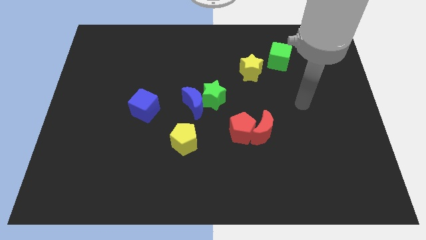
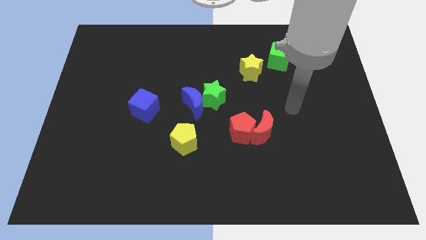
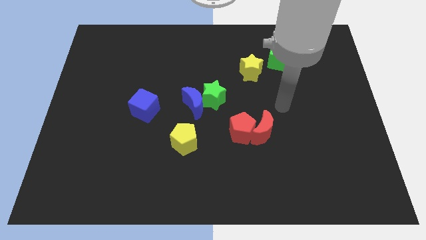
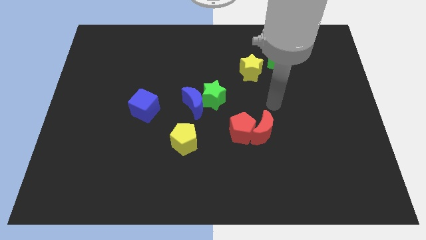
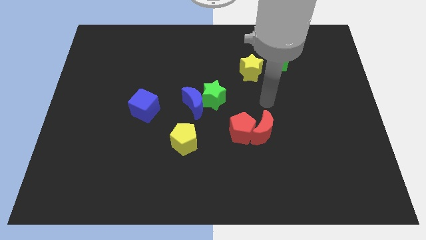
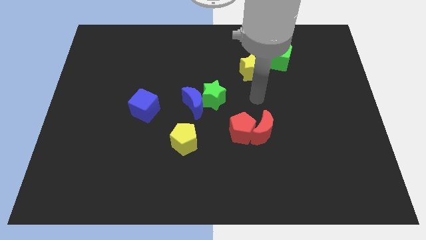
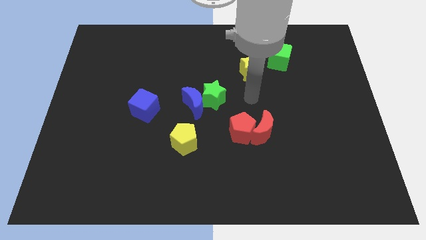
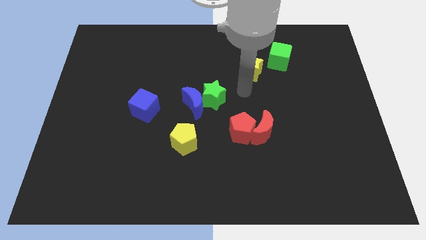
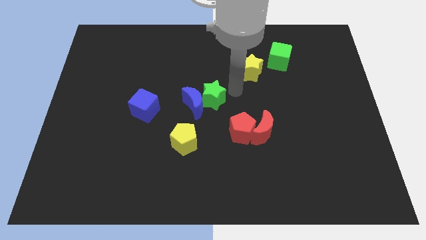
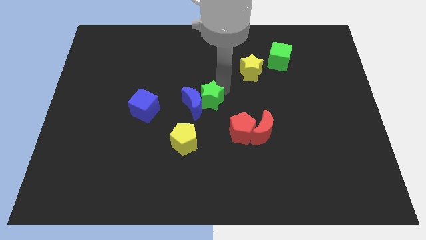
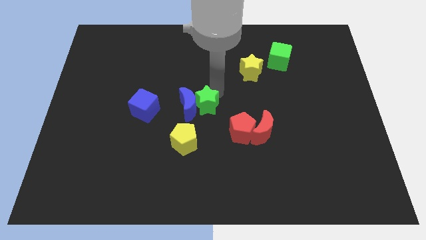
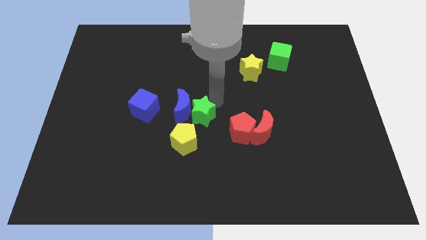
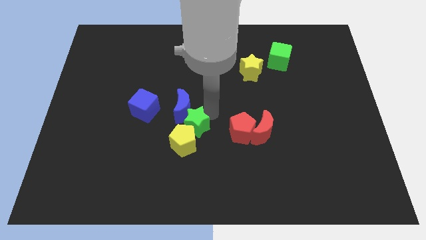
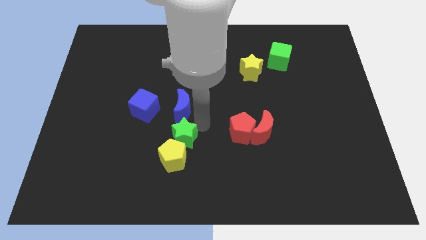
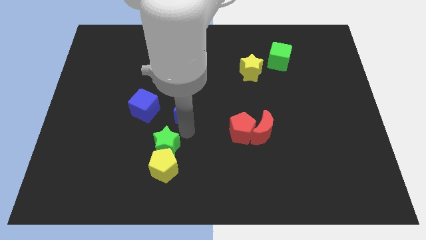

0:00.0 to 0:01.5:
separate the blue moon from the green star

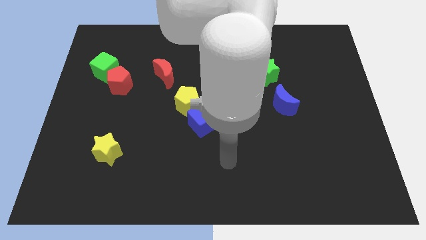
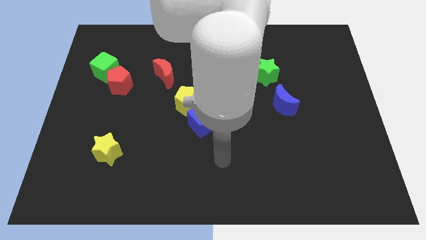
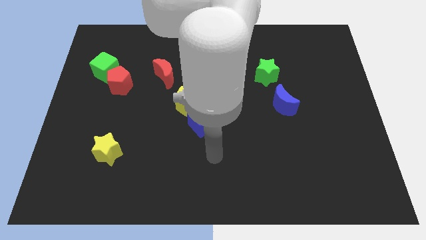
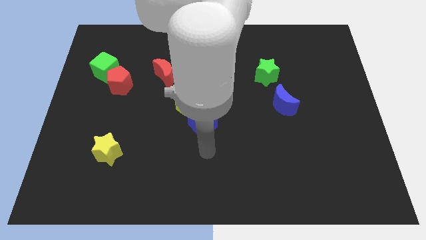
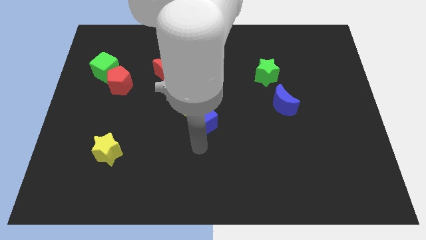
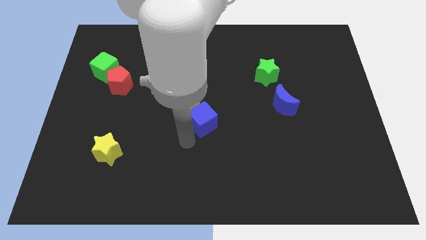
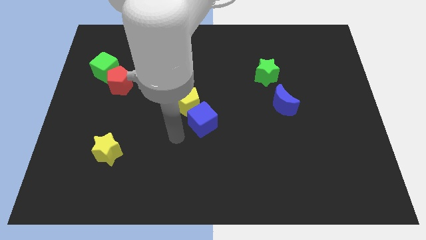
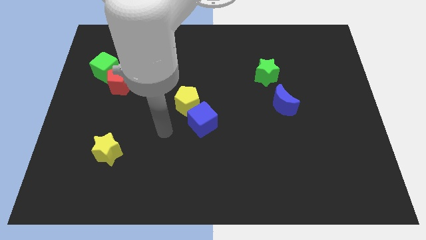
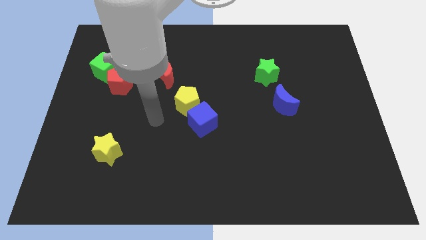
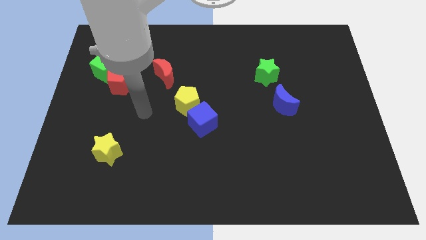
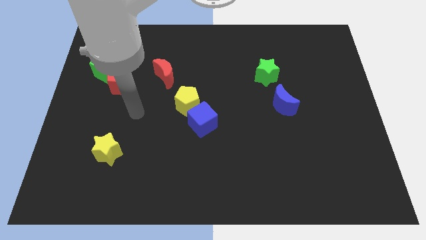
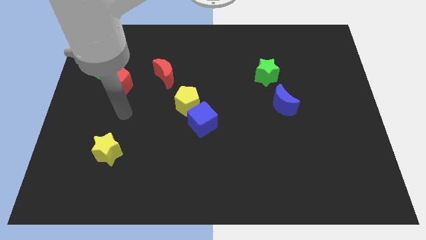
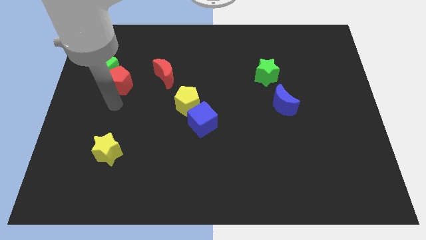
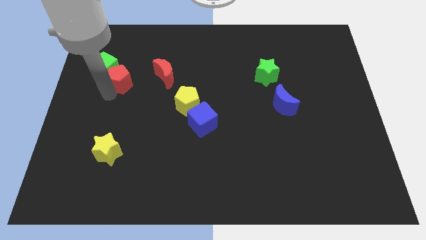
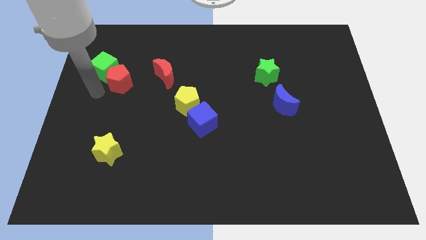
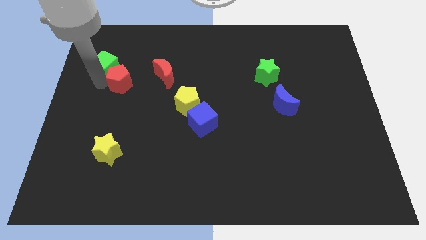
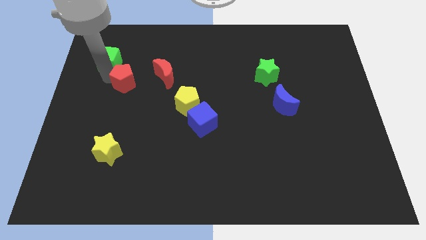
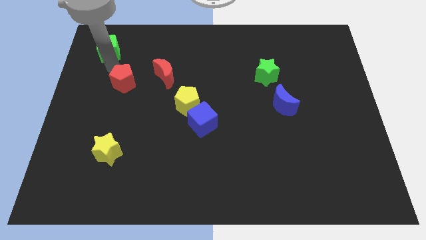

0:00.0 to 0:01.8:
pull the red pentagon apart from the green cube

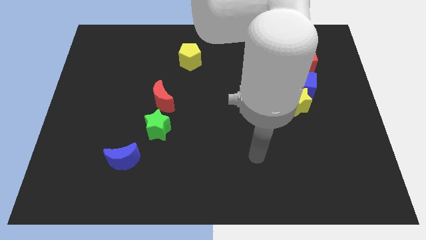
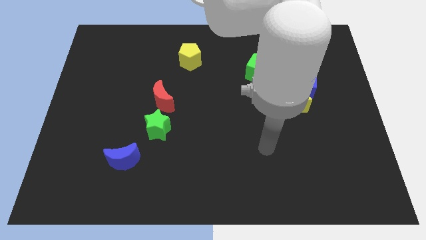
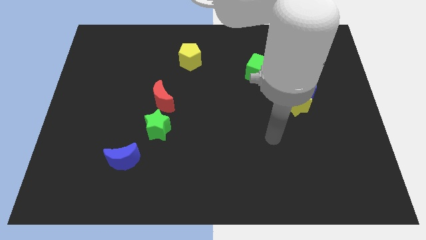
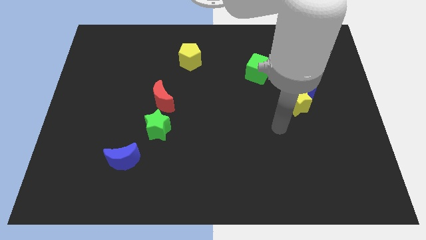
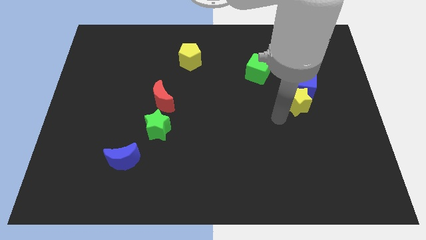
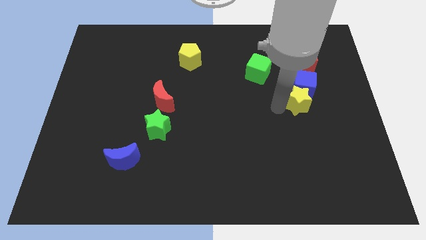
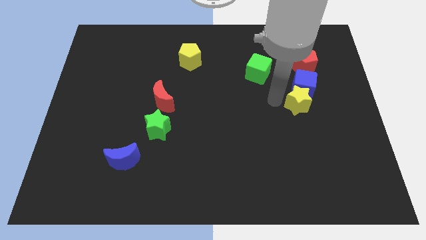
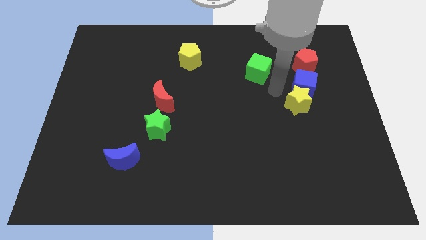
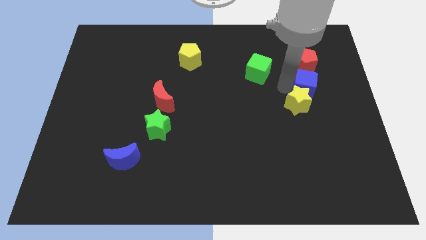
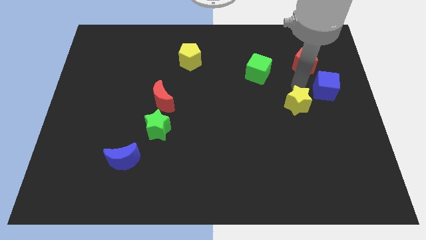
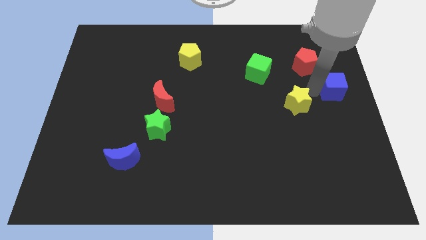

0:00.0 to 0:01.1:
pull the yellow star apart from the blue cube

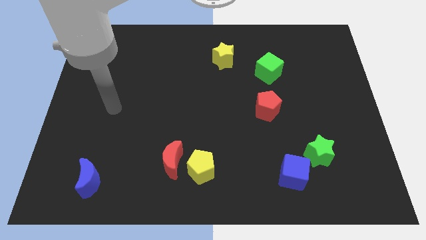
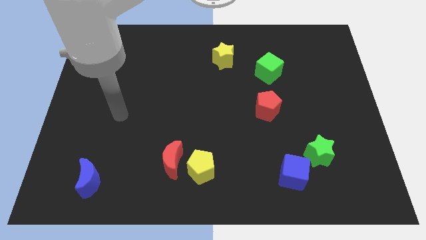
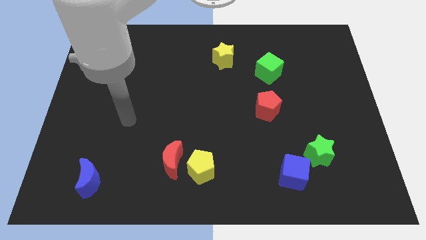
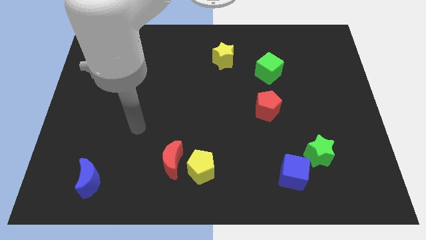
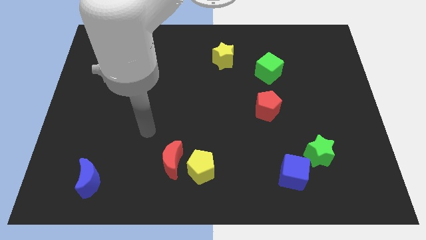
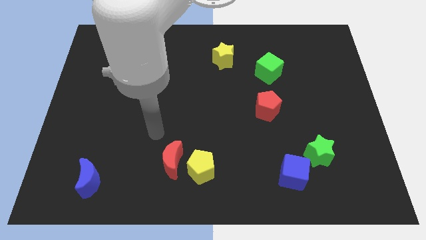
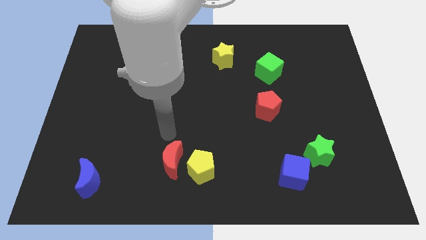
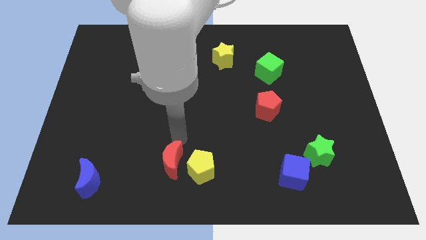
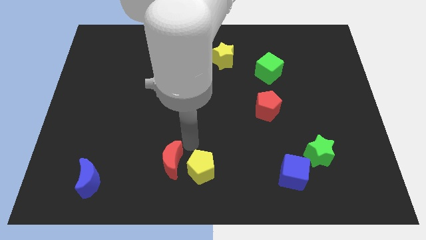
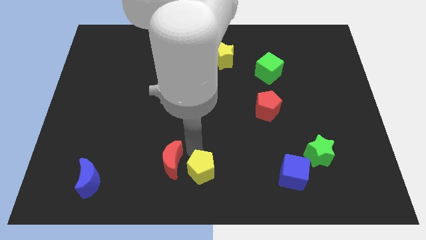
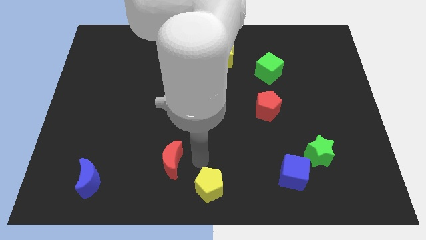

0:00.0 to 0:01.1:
move the red moon away from the yellow pentagon

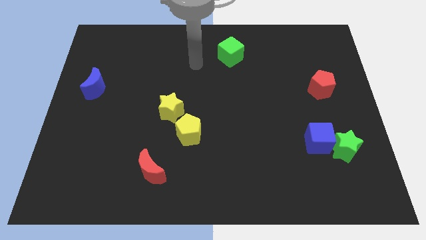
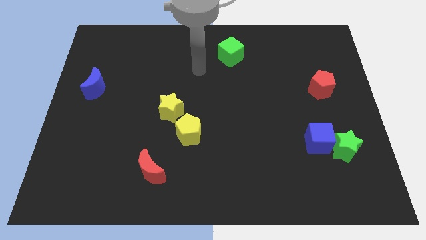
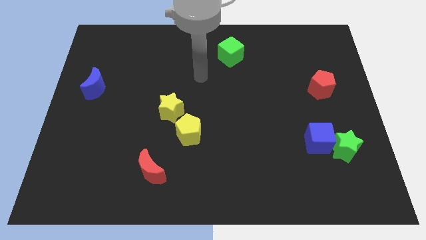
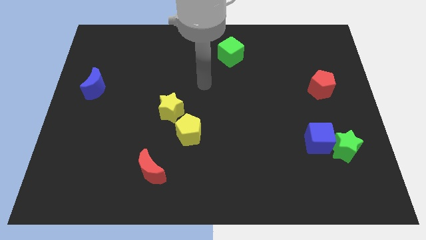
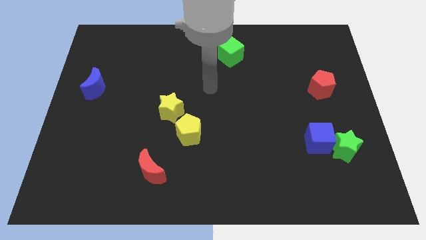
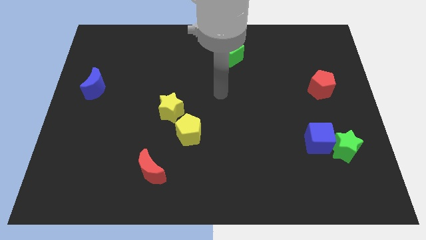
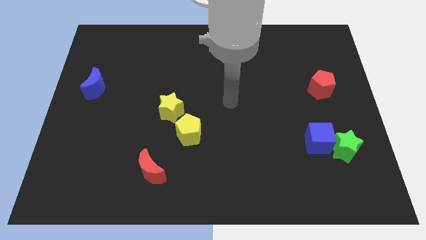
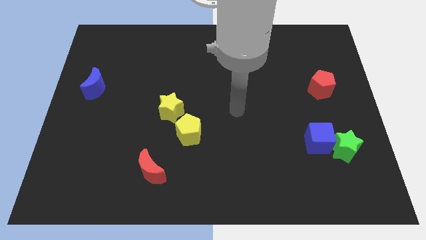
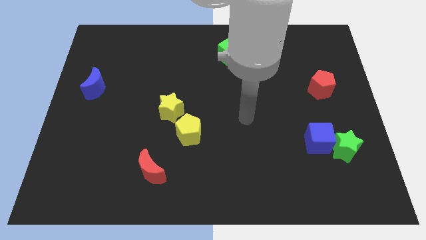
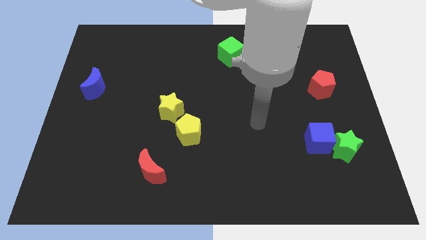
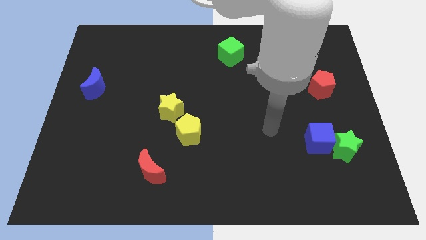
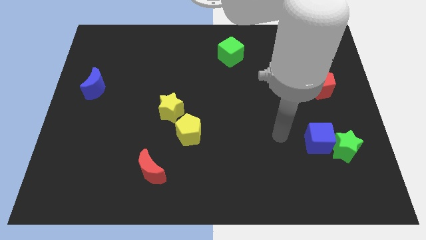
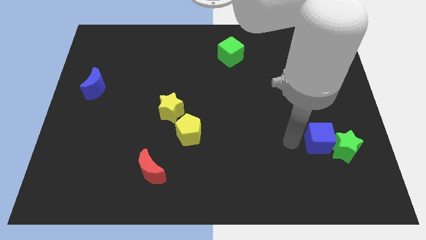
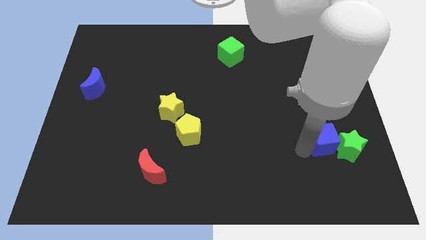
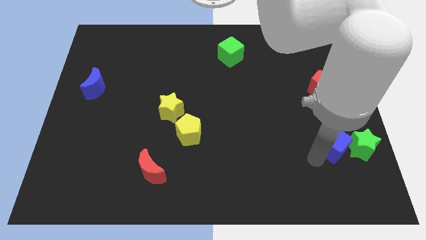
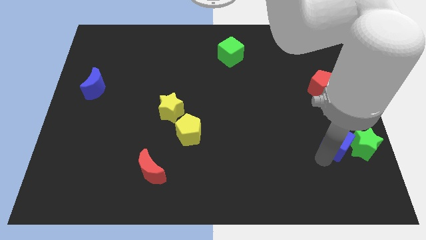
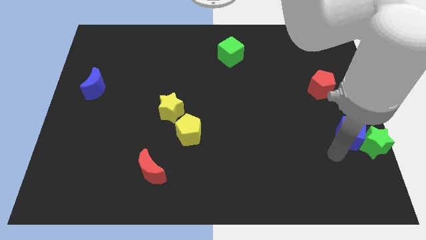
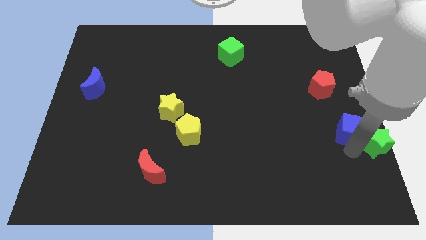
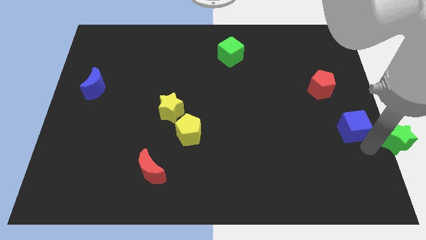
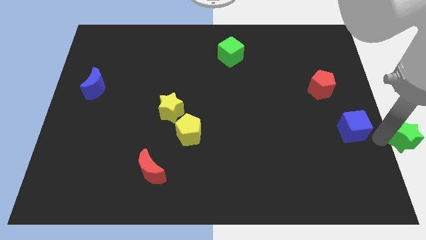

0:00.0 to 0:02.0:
separate the blue cube from the green star

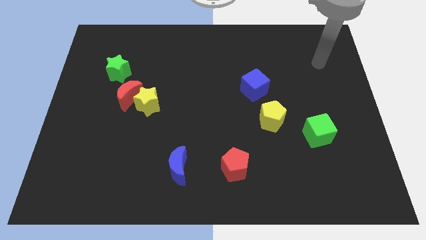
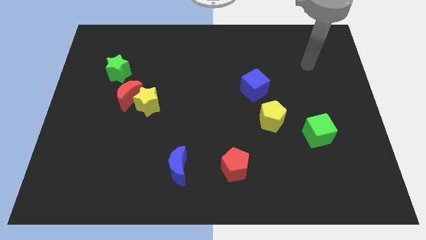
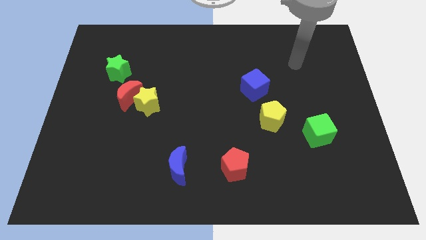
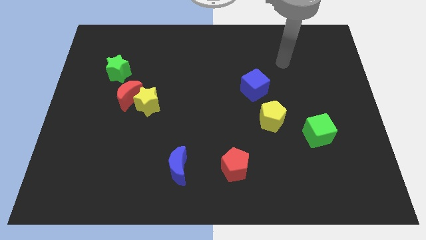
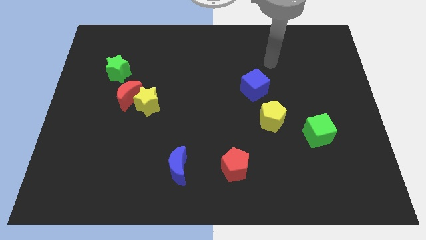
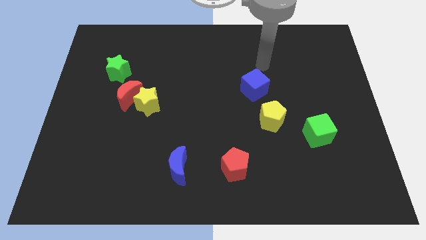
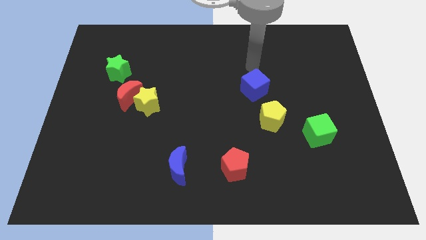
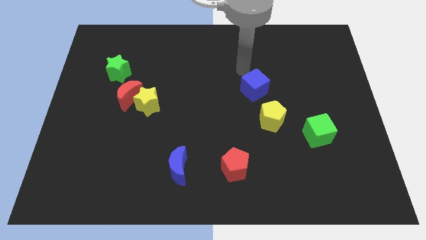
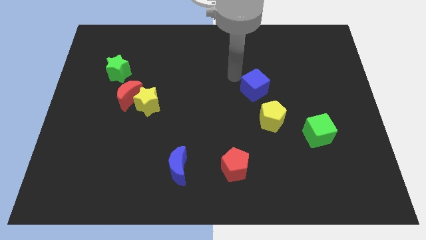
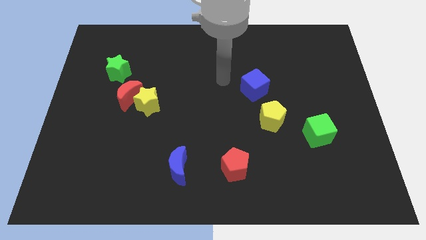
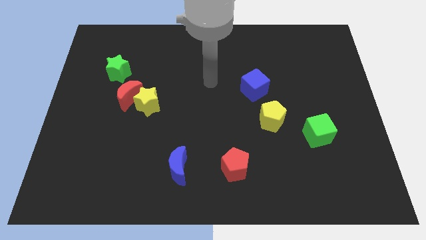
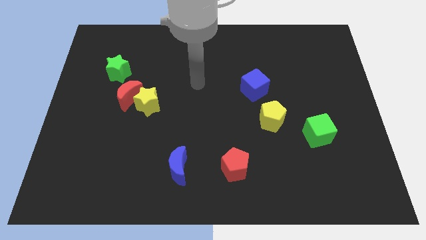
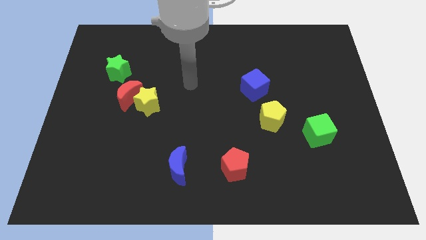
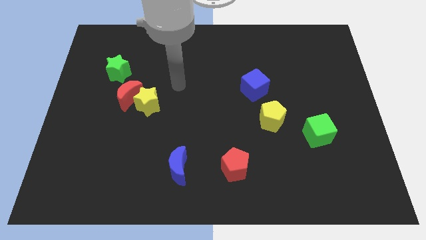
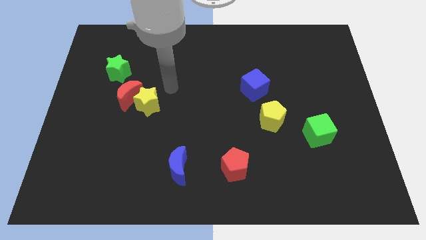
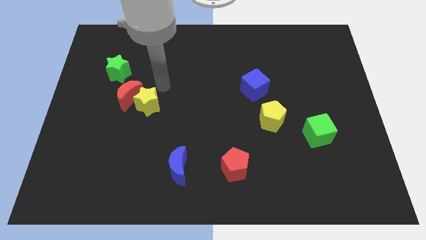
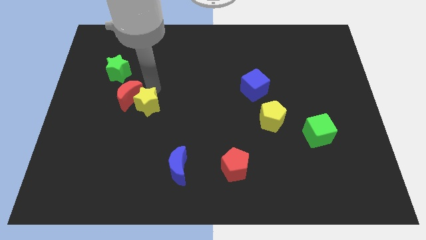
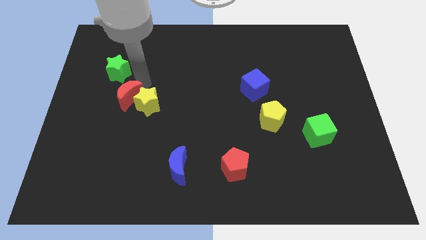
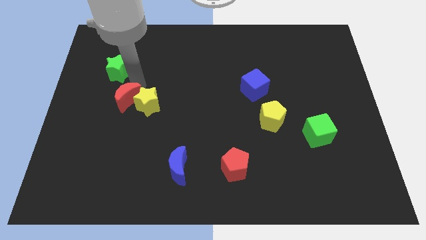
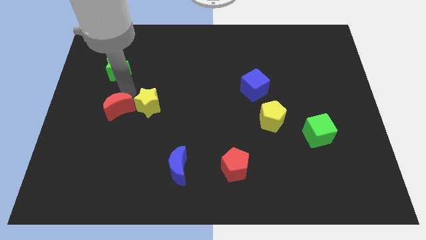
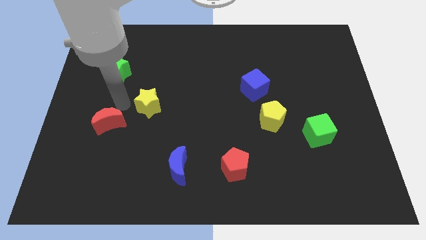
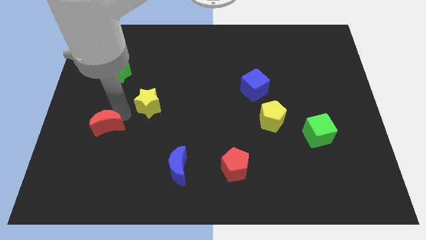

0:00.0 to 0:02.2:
move the yellow star away from the red moon
